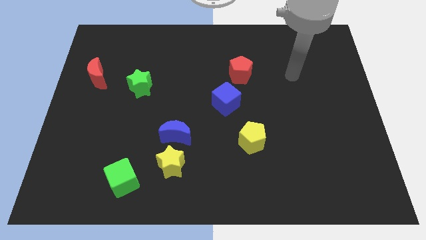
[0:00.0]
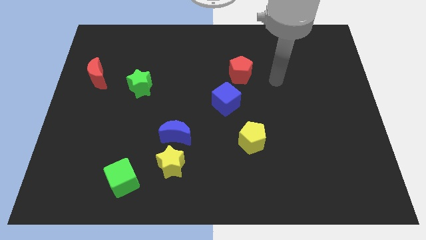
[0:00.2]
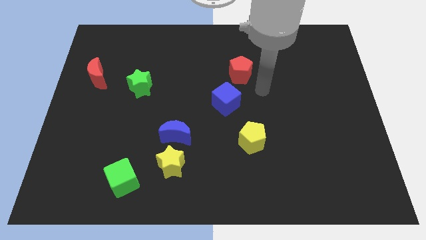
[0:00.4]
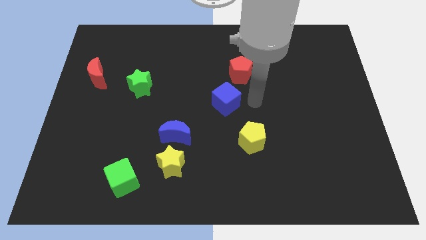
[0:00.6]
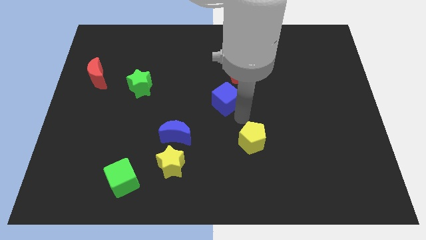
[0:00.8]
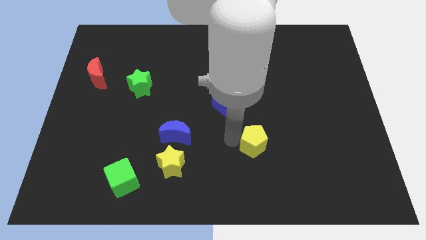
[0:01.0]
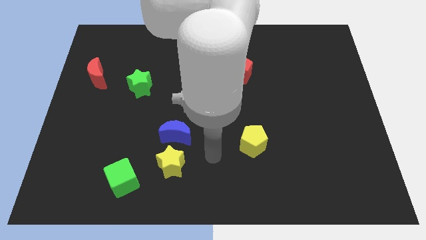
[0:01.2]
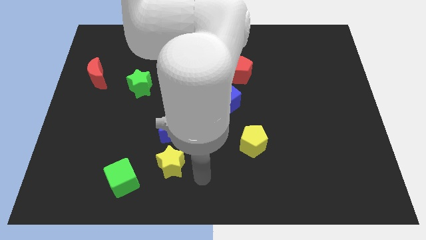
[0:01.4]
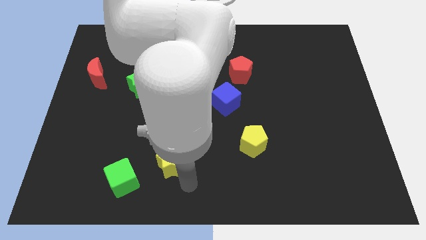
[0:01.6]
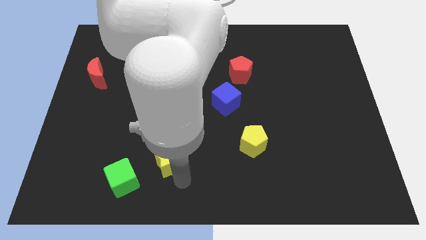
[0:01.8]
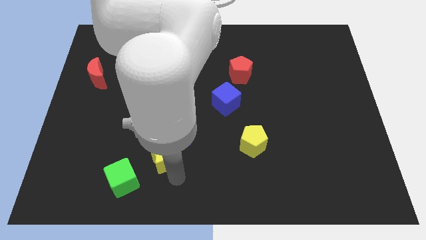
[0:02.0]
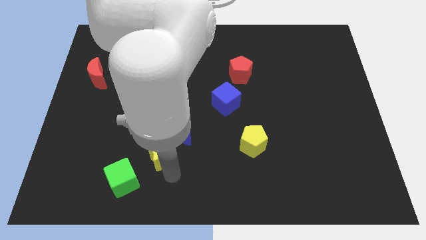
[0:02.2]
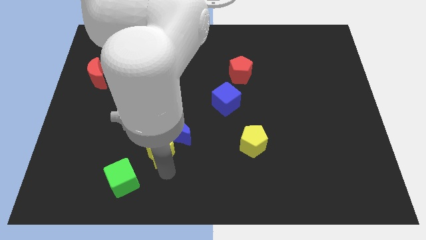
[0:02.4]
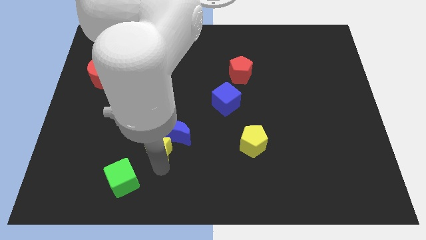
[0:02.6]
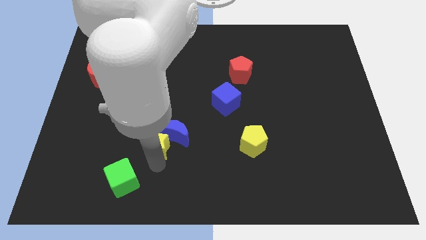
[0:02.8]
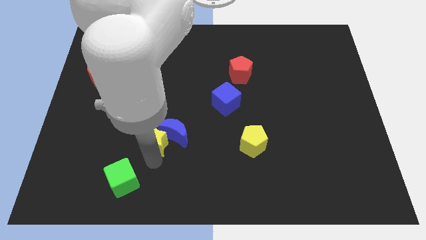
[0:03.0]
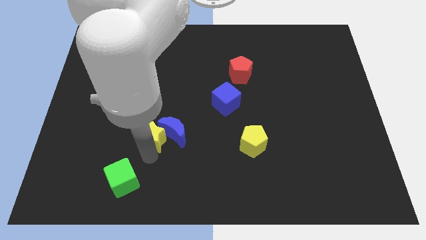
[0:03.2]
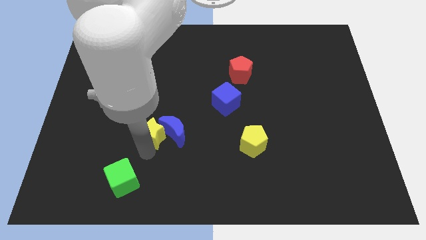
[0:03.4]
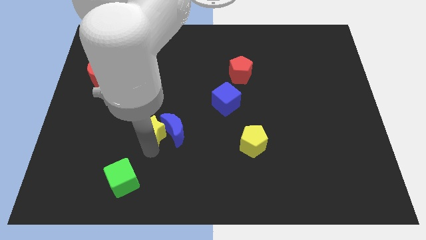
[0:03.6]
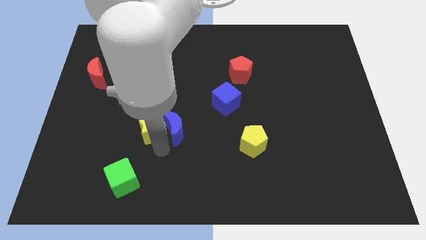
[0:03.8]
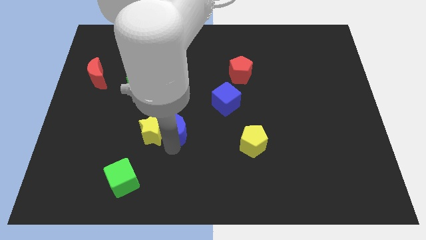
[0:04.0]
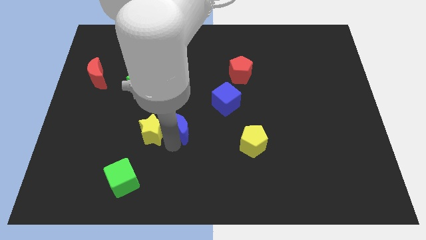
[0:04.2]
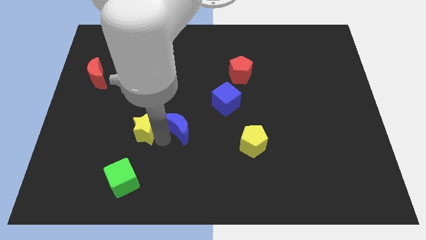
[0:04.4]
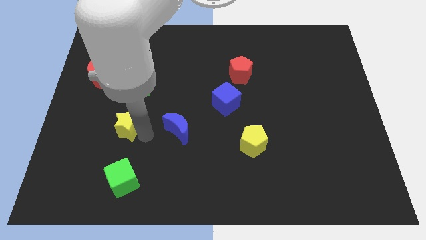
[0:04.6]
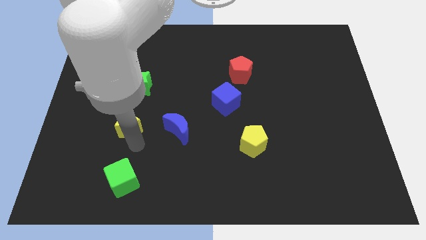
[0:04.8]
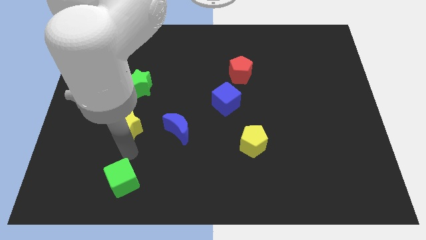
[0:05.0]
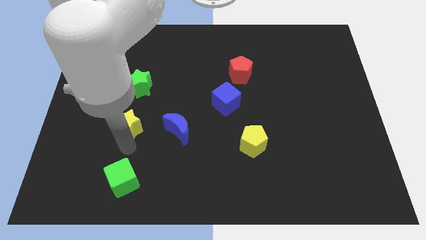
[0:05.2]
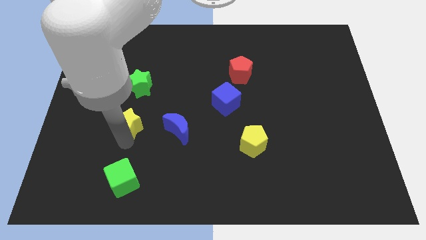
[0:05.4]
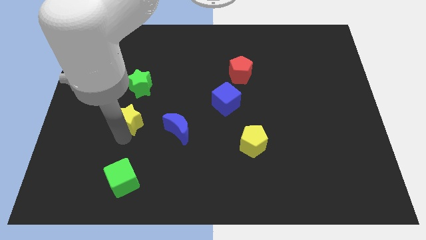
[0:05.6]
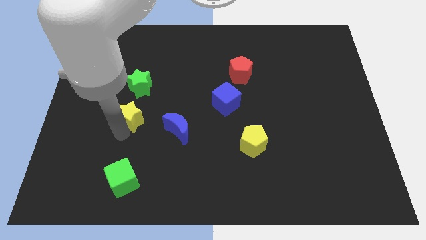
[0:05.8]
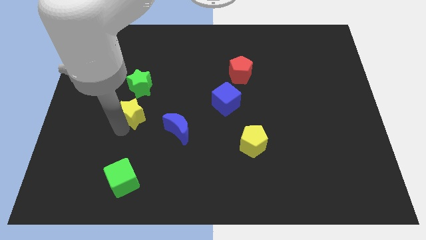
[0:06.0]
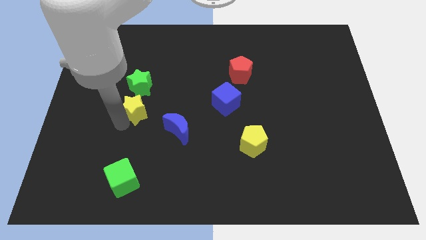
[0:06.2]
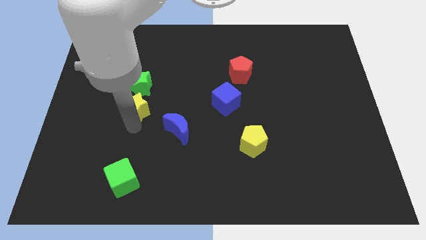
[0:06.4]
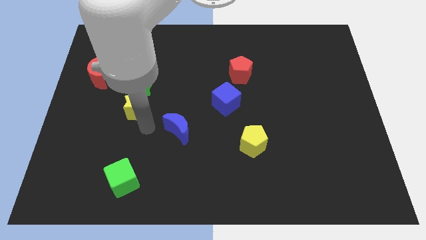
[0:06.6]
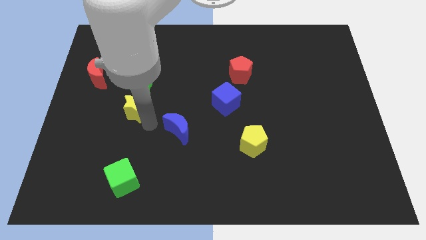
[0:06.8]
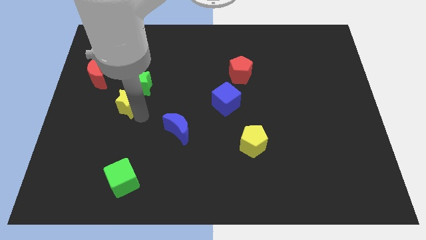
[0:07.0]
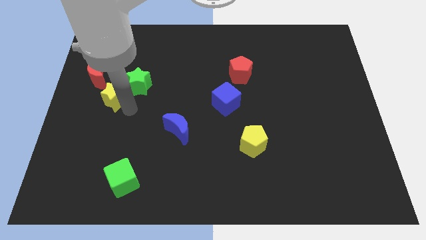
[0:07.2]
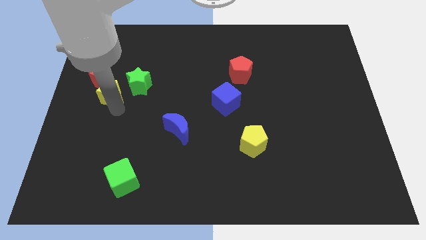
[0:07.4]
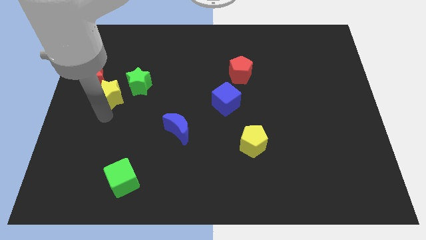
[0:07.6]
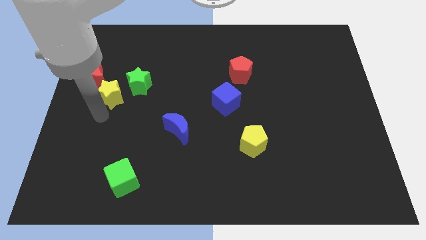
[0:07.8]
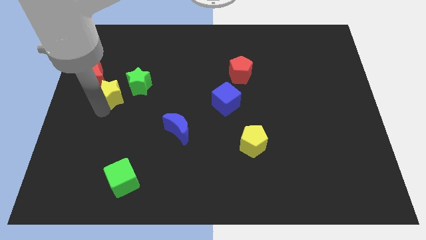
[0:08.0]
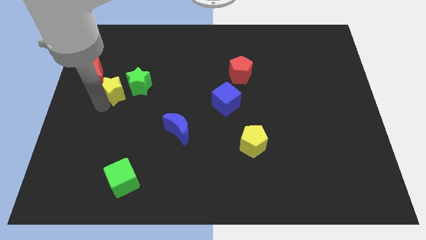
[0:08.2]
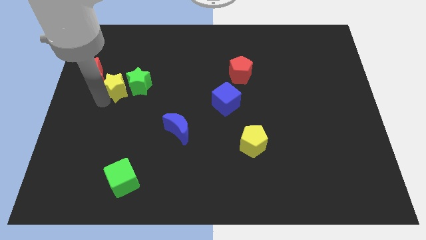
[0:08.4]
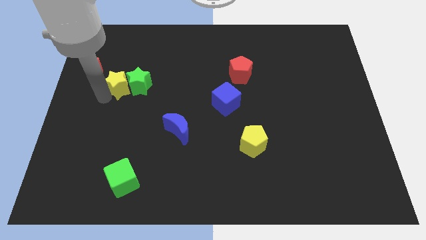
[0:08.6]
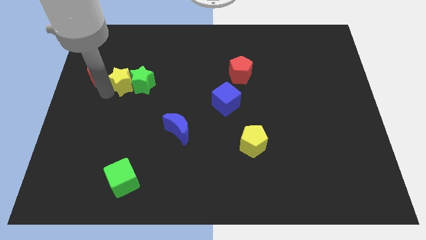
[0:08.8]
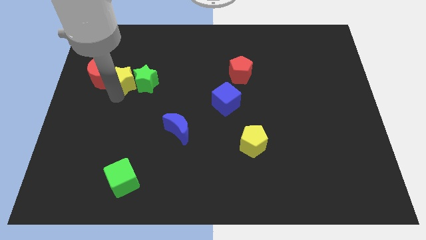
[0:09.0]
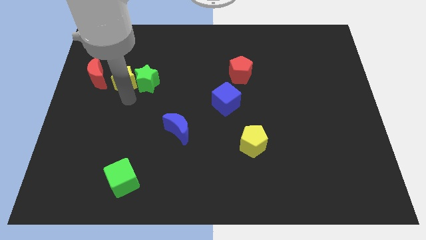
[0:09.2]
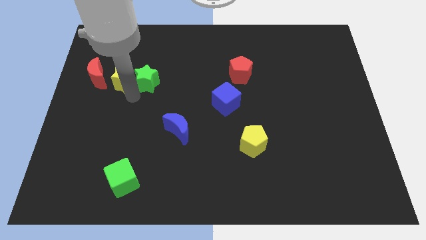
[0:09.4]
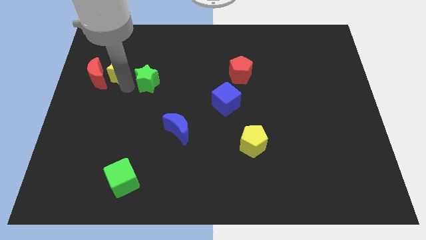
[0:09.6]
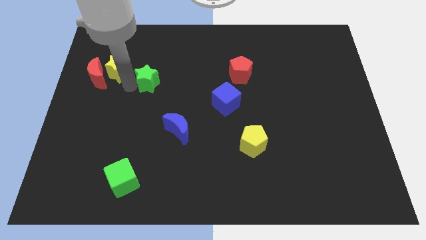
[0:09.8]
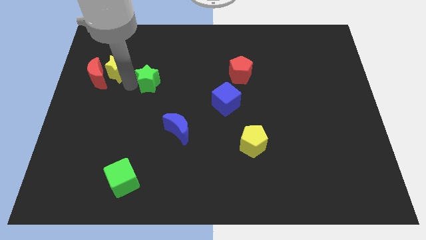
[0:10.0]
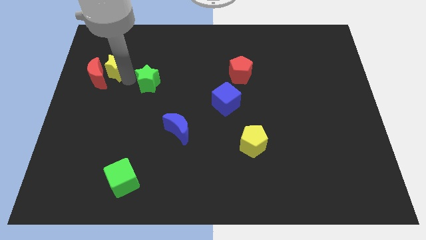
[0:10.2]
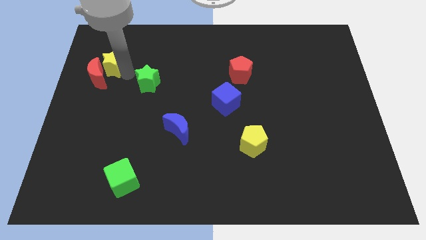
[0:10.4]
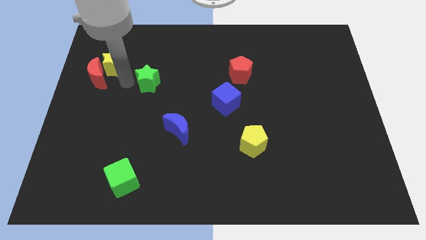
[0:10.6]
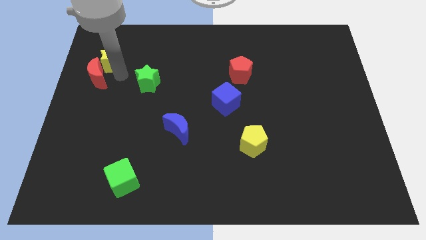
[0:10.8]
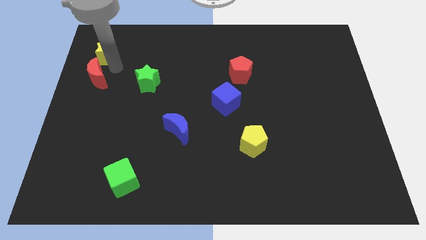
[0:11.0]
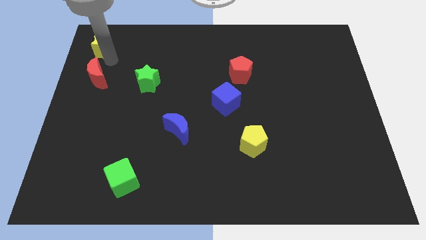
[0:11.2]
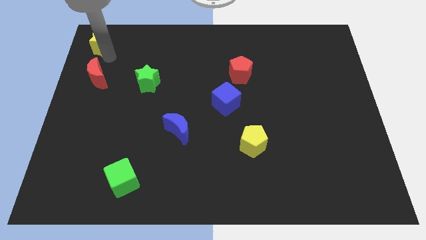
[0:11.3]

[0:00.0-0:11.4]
slide the yellow star to the upper left corner

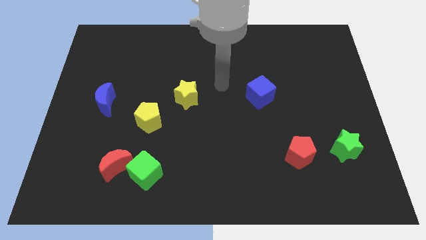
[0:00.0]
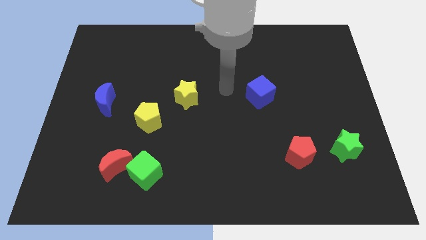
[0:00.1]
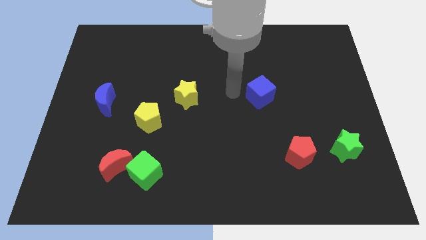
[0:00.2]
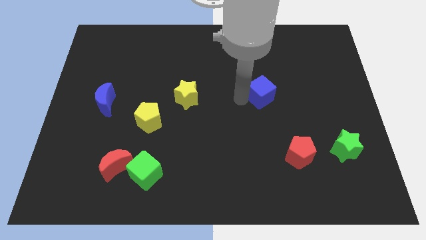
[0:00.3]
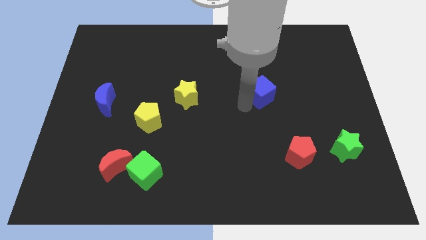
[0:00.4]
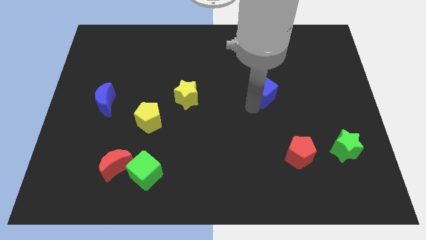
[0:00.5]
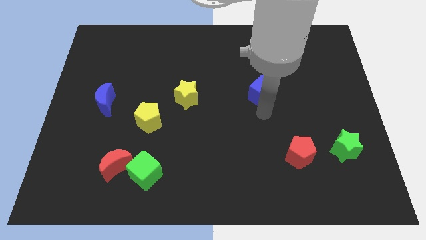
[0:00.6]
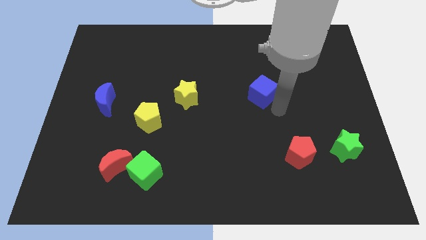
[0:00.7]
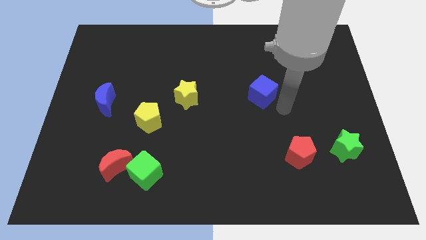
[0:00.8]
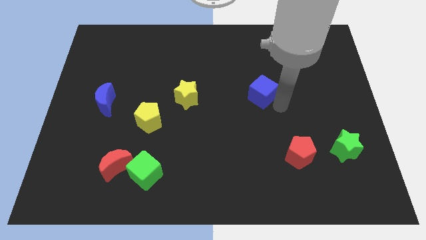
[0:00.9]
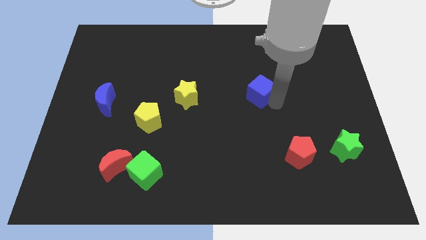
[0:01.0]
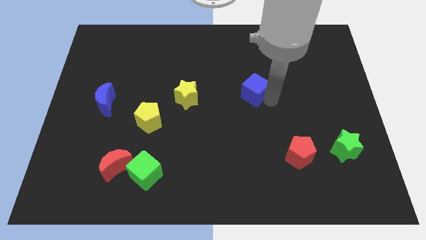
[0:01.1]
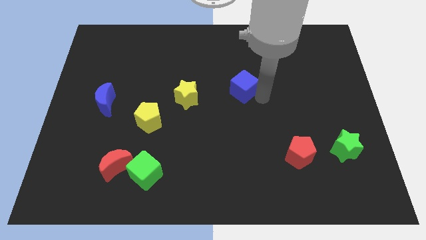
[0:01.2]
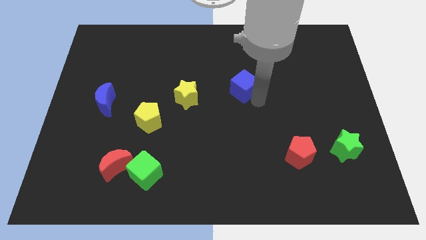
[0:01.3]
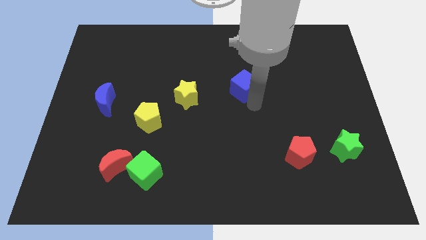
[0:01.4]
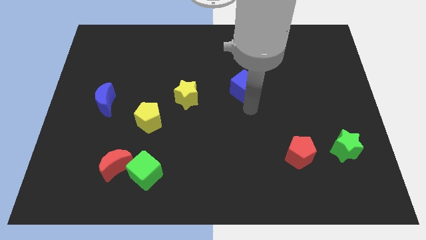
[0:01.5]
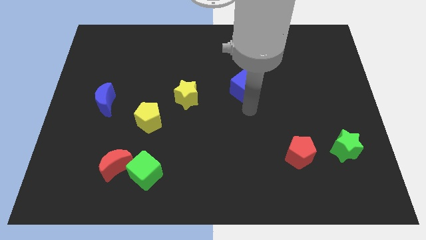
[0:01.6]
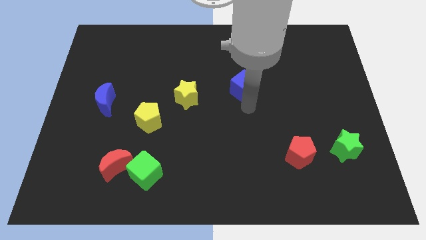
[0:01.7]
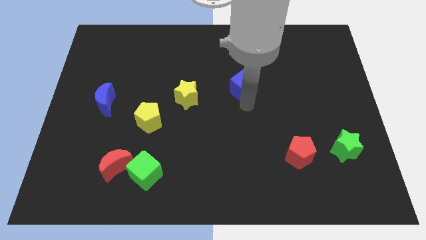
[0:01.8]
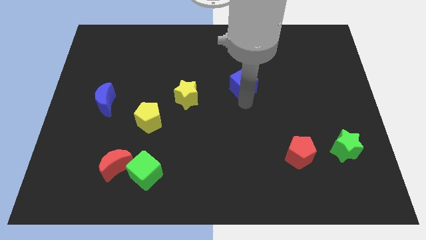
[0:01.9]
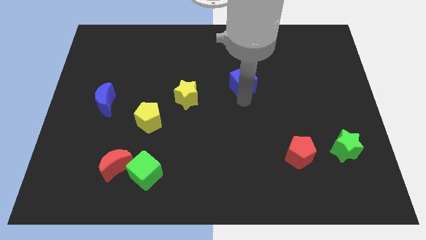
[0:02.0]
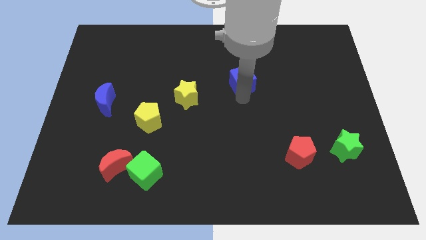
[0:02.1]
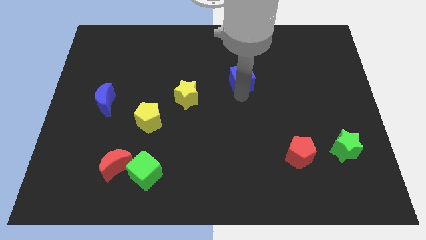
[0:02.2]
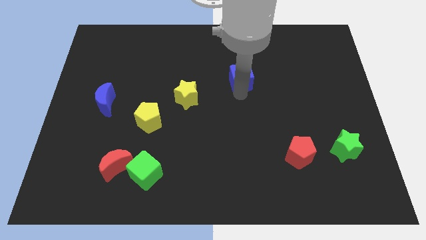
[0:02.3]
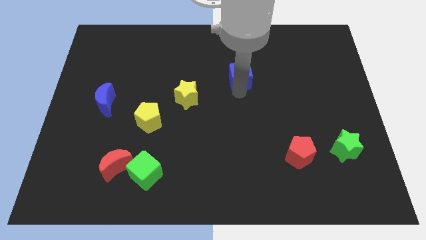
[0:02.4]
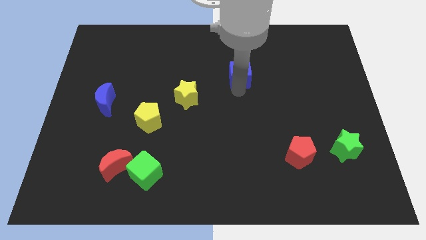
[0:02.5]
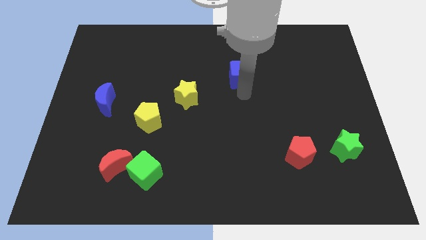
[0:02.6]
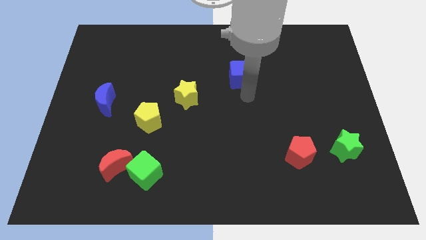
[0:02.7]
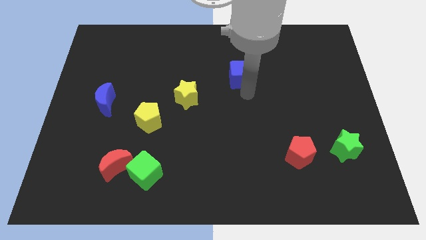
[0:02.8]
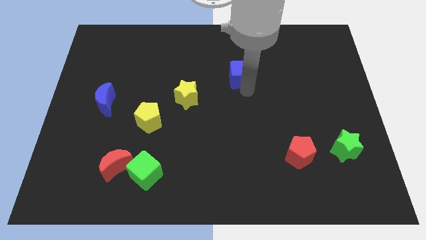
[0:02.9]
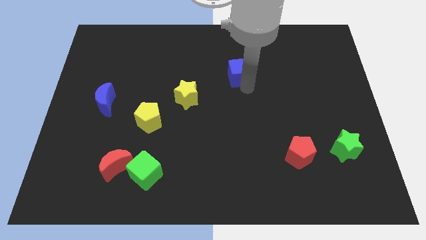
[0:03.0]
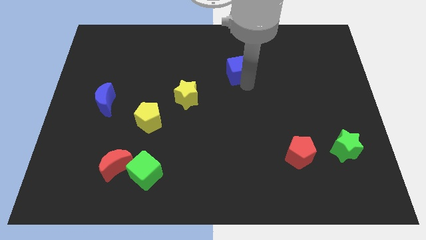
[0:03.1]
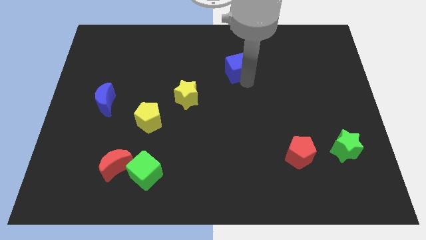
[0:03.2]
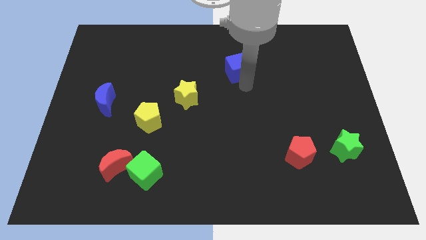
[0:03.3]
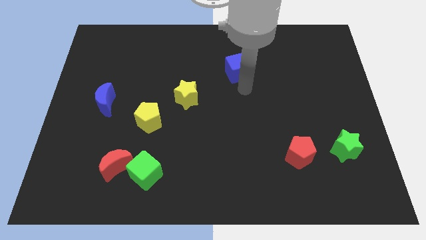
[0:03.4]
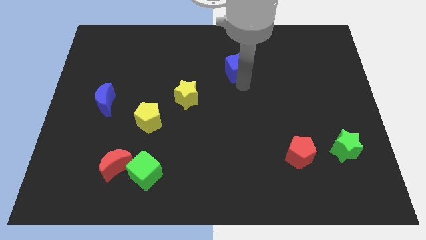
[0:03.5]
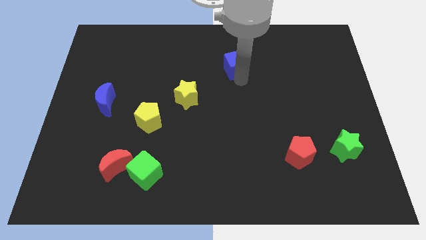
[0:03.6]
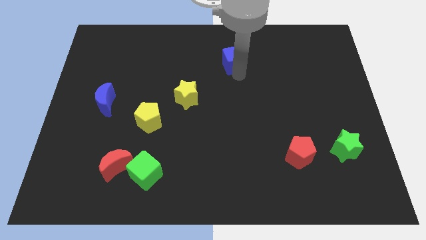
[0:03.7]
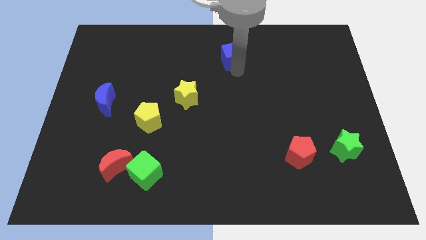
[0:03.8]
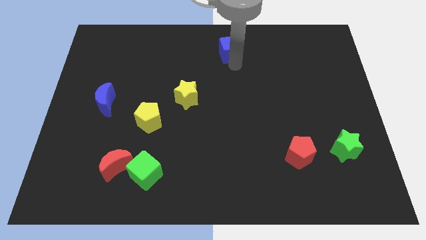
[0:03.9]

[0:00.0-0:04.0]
slide the blue cube to the top side
